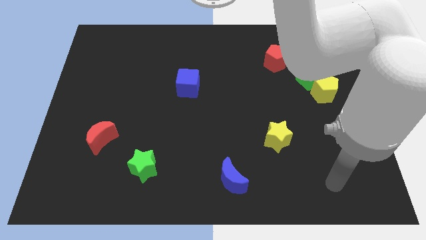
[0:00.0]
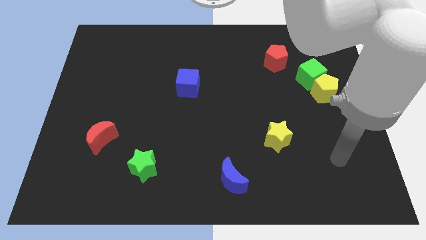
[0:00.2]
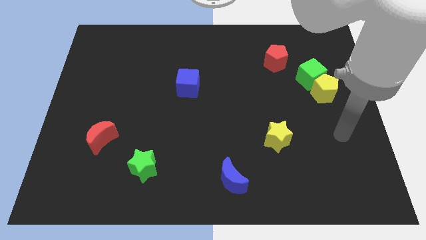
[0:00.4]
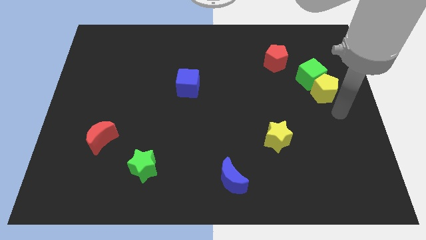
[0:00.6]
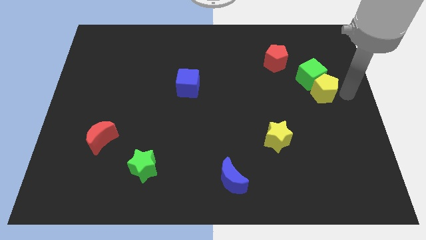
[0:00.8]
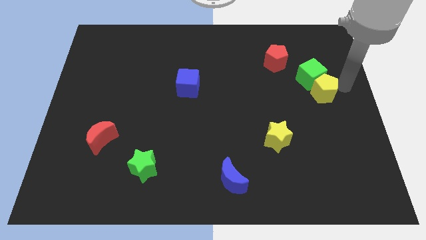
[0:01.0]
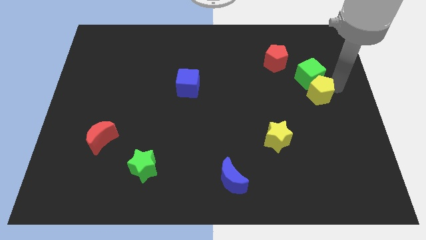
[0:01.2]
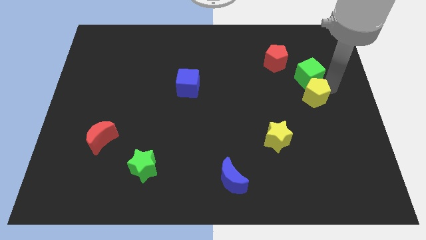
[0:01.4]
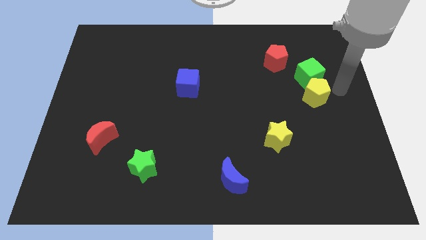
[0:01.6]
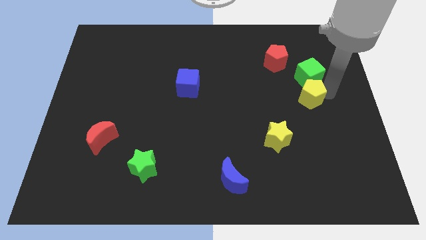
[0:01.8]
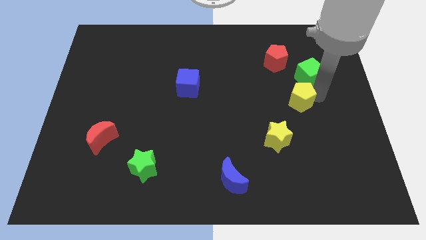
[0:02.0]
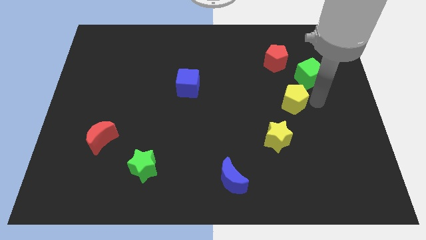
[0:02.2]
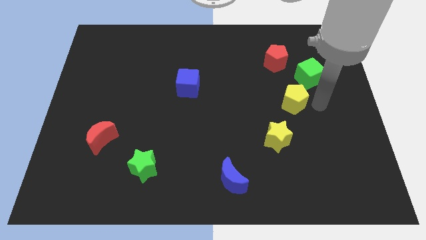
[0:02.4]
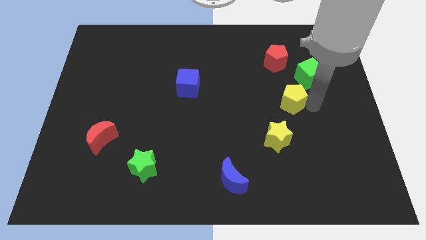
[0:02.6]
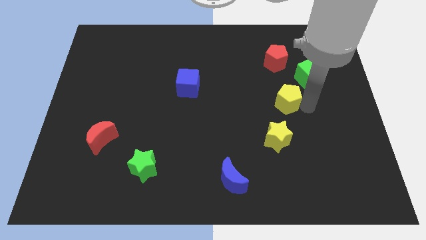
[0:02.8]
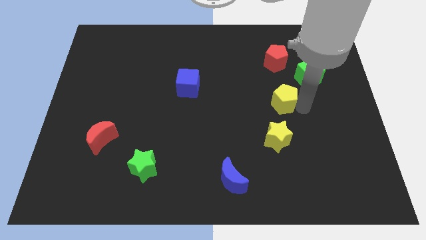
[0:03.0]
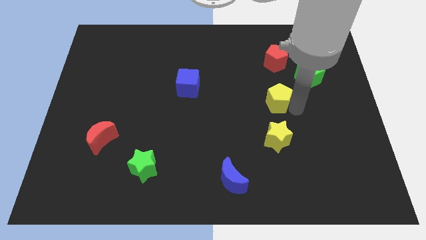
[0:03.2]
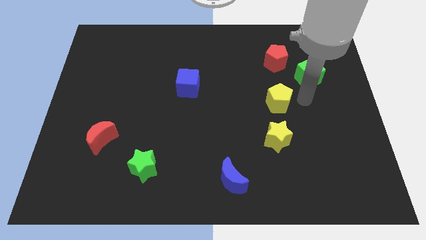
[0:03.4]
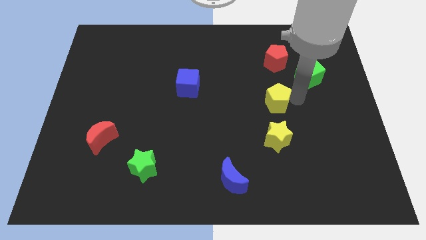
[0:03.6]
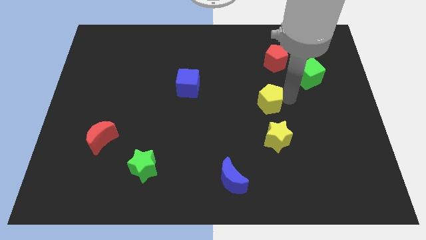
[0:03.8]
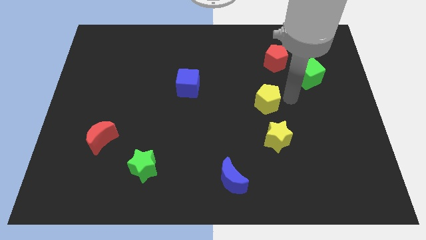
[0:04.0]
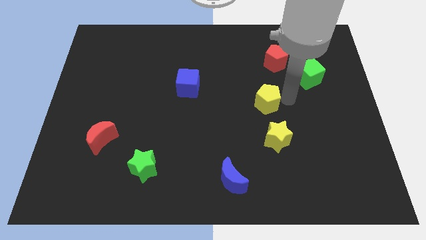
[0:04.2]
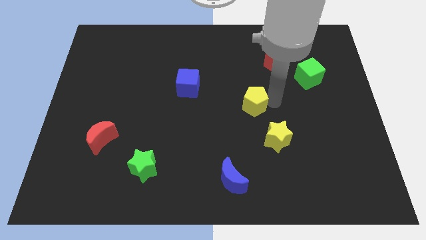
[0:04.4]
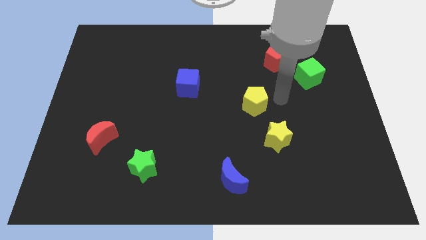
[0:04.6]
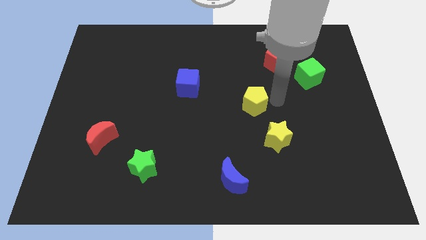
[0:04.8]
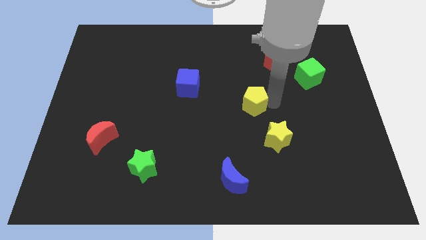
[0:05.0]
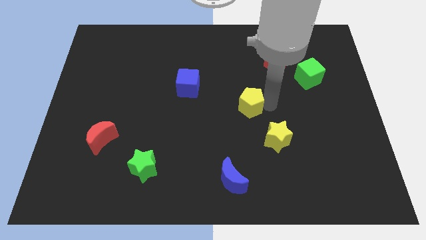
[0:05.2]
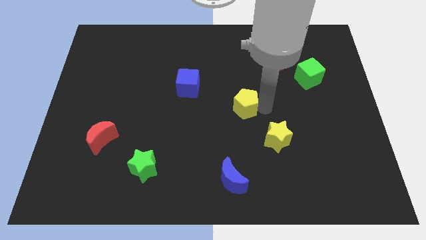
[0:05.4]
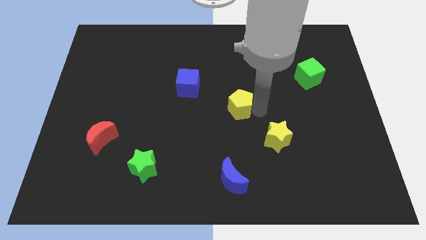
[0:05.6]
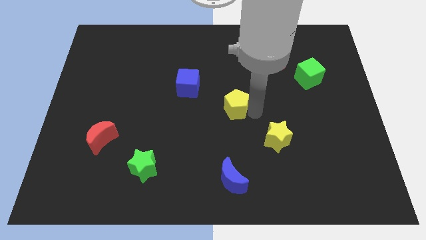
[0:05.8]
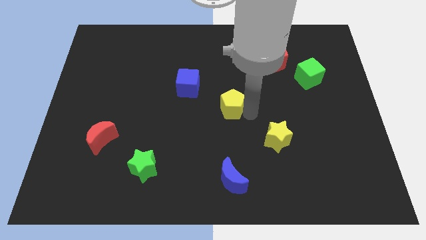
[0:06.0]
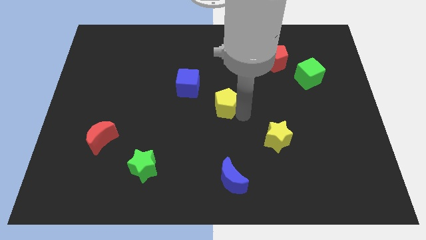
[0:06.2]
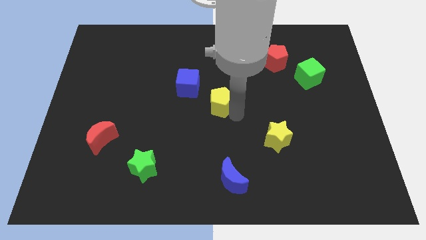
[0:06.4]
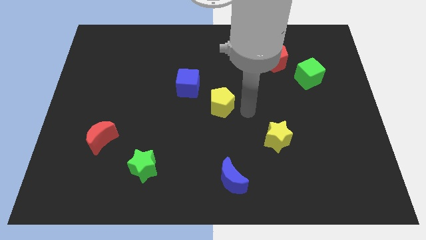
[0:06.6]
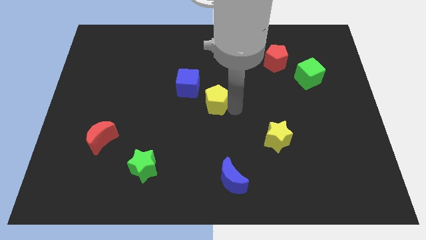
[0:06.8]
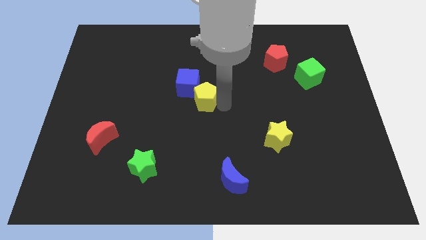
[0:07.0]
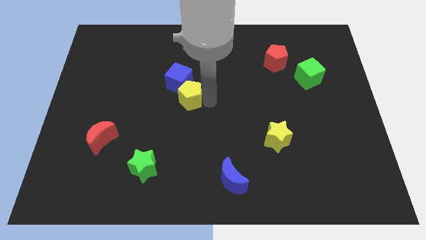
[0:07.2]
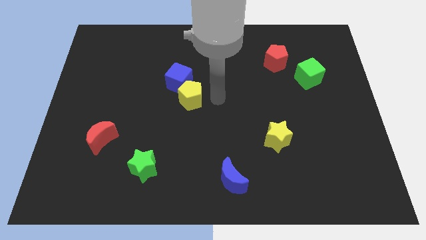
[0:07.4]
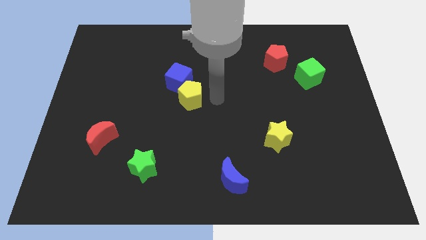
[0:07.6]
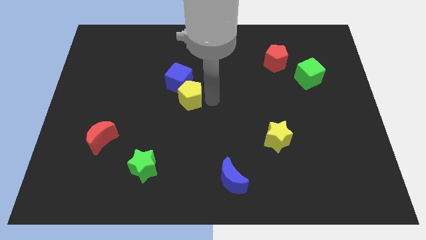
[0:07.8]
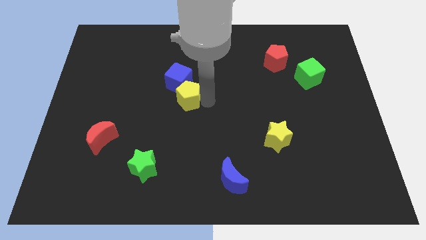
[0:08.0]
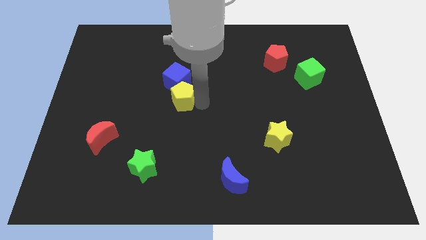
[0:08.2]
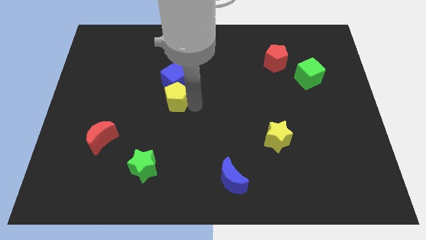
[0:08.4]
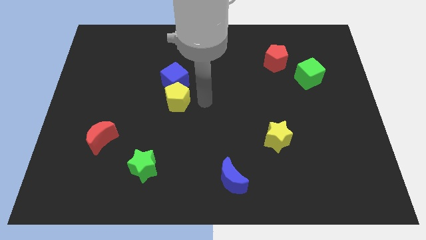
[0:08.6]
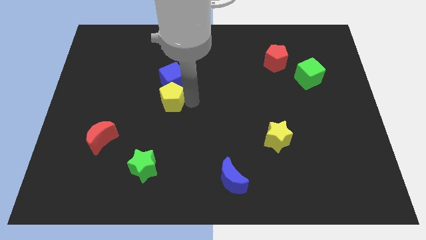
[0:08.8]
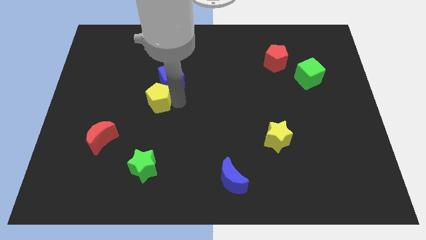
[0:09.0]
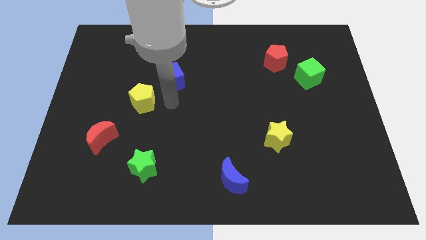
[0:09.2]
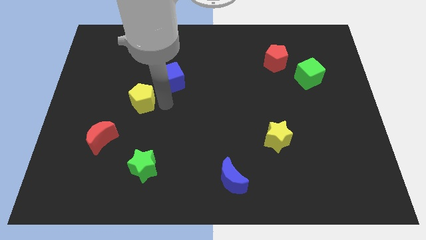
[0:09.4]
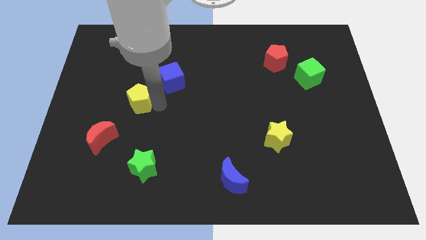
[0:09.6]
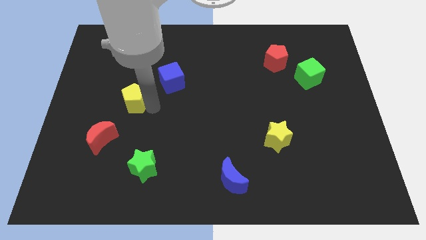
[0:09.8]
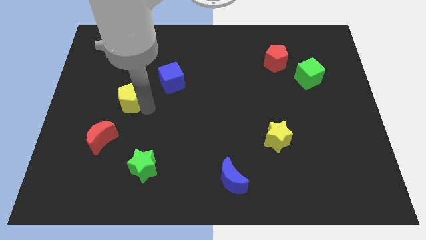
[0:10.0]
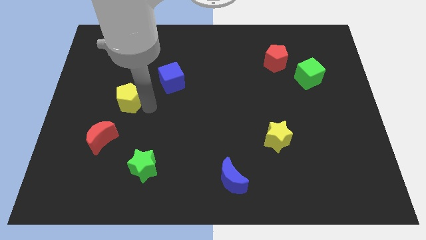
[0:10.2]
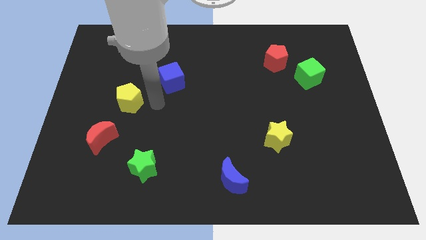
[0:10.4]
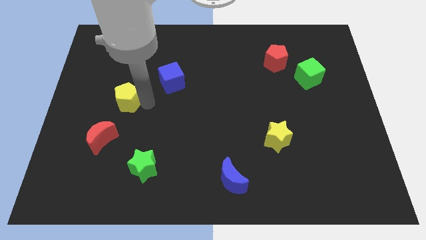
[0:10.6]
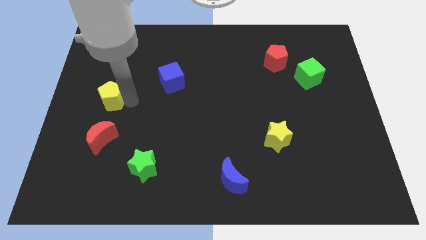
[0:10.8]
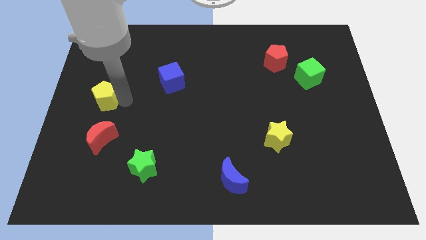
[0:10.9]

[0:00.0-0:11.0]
slide the yellow pentagon to the center left
